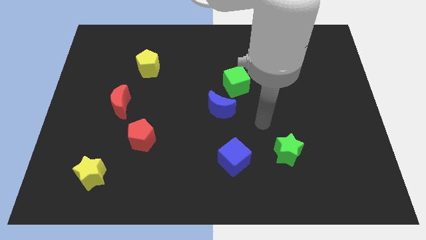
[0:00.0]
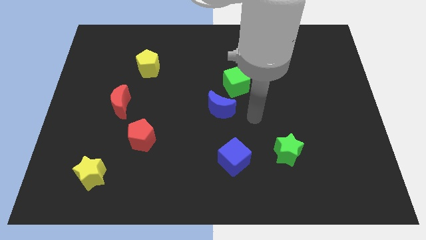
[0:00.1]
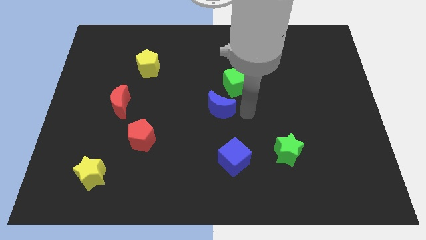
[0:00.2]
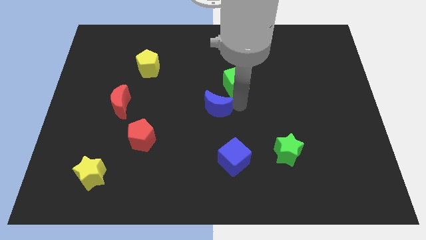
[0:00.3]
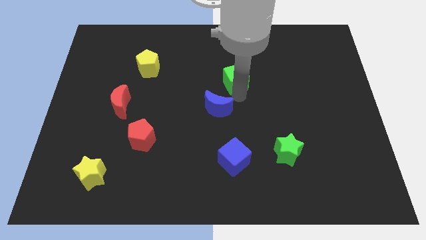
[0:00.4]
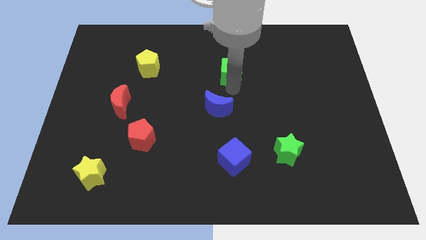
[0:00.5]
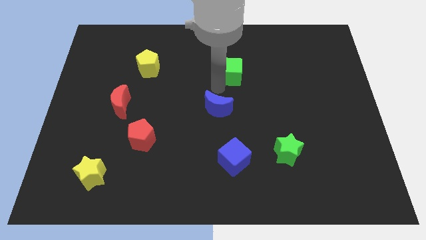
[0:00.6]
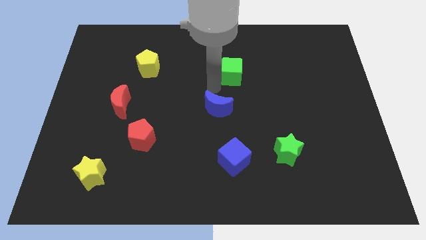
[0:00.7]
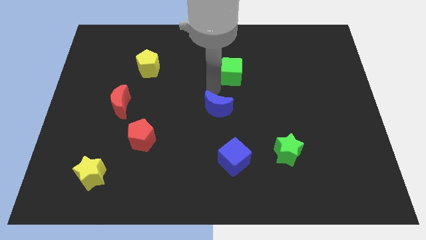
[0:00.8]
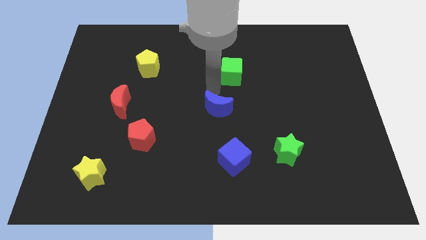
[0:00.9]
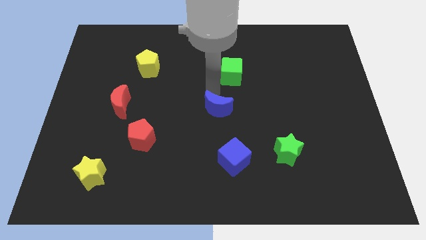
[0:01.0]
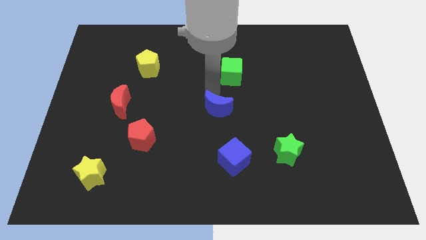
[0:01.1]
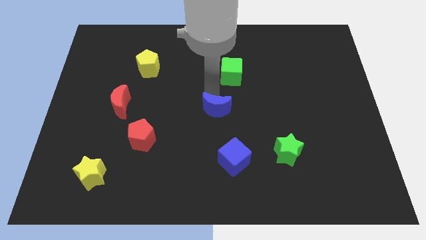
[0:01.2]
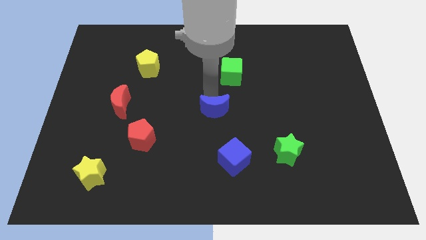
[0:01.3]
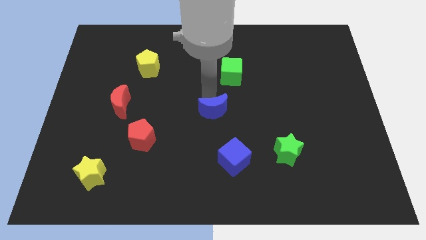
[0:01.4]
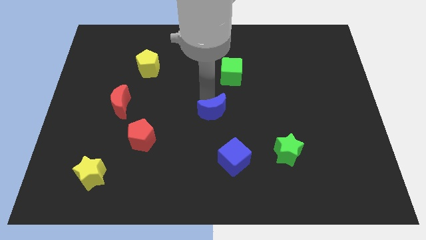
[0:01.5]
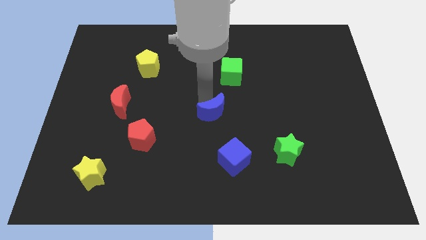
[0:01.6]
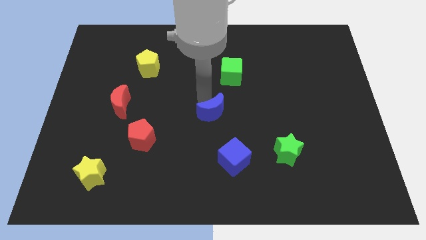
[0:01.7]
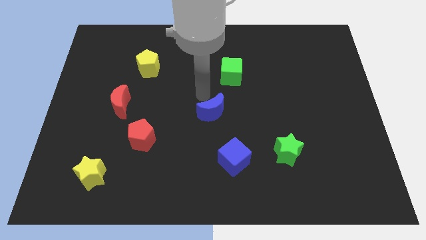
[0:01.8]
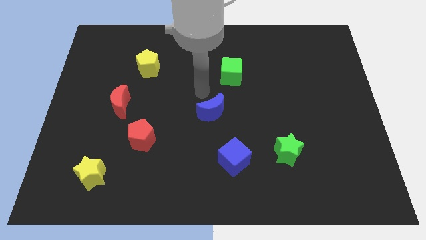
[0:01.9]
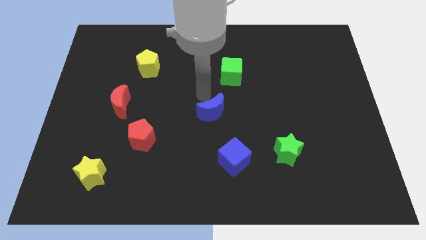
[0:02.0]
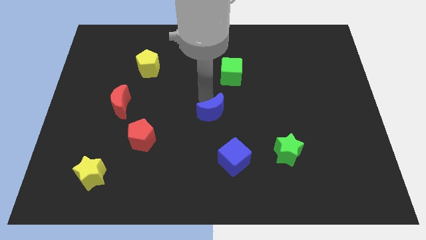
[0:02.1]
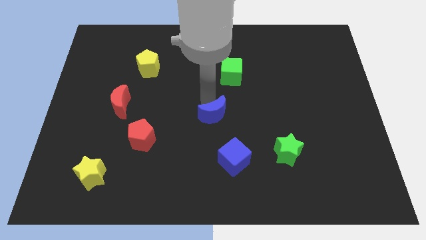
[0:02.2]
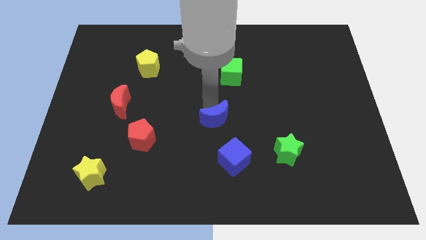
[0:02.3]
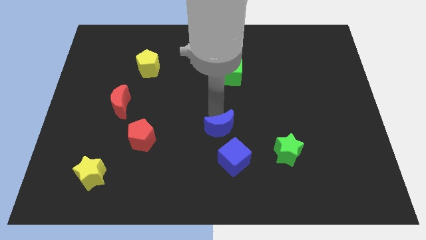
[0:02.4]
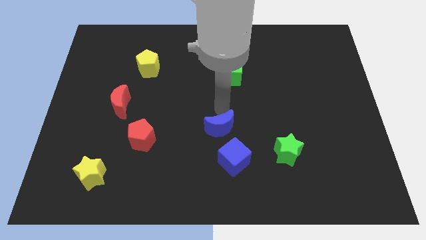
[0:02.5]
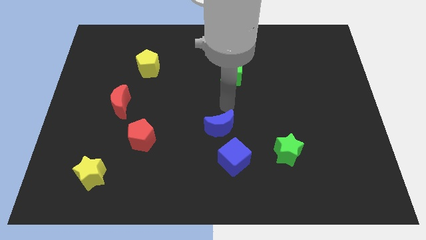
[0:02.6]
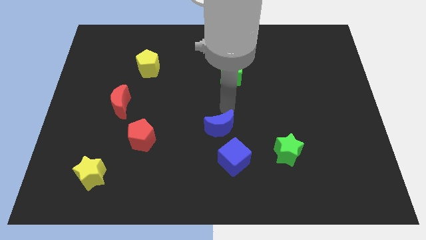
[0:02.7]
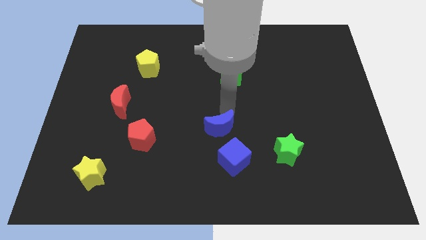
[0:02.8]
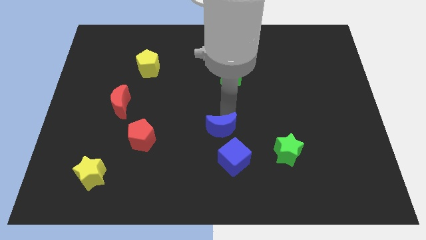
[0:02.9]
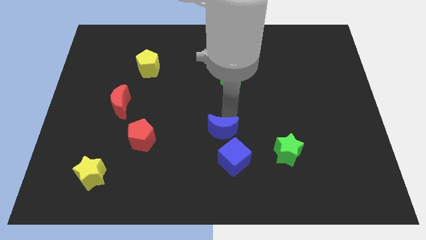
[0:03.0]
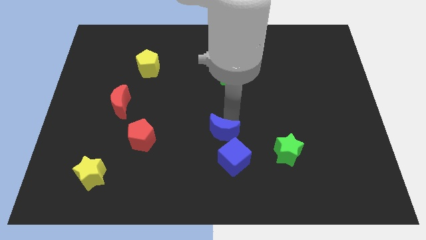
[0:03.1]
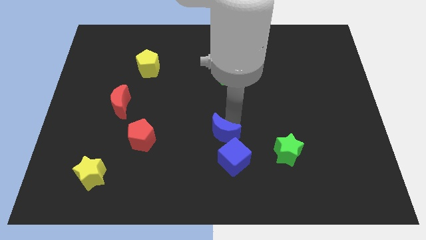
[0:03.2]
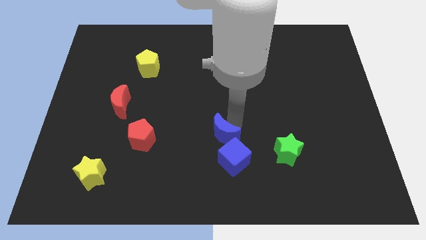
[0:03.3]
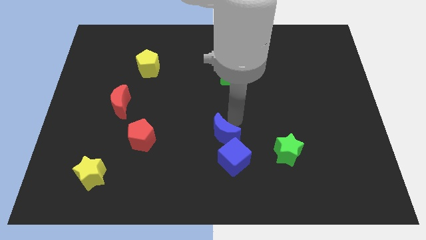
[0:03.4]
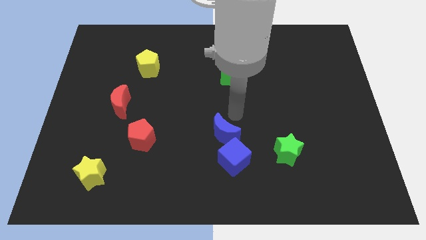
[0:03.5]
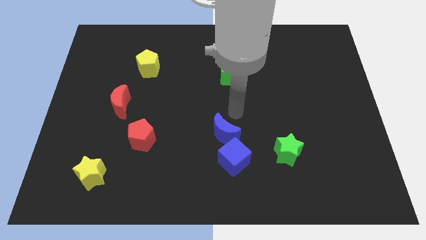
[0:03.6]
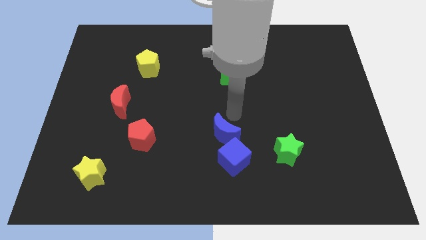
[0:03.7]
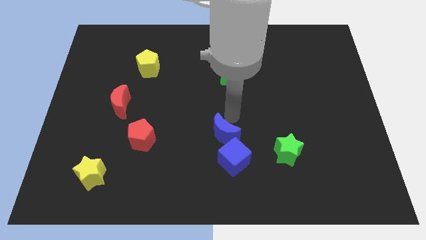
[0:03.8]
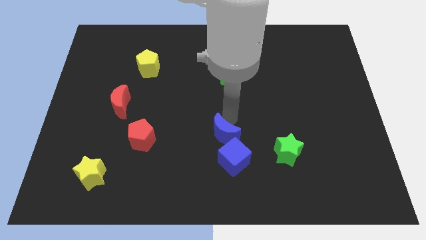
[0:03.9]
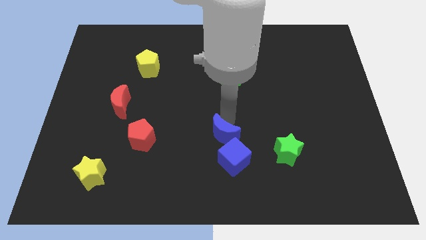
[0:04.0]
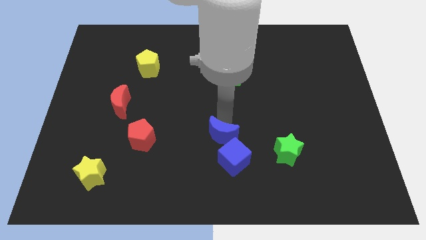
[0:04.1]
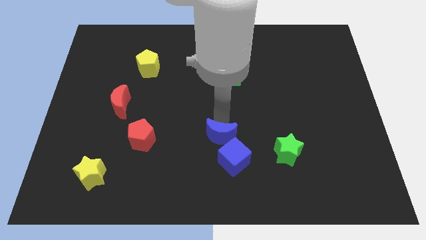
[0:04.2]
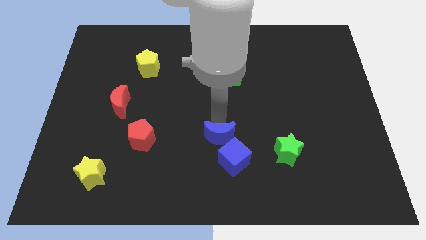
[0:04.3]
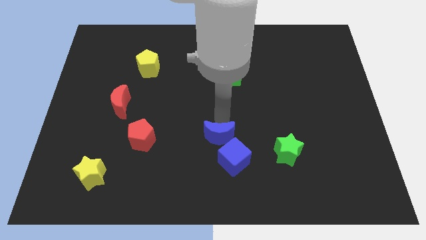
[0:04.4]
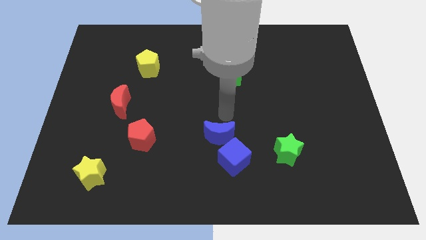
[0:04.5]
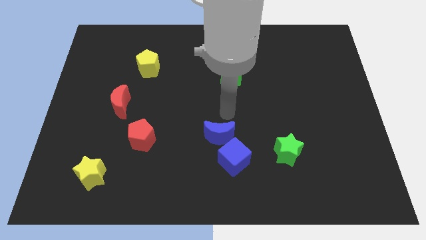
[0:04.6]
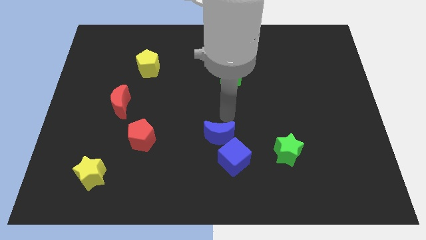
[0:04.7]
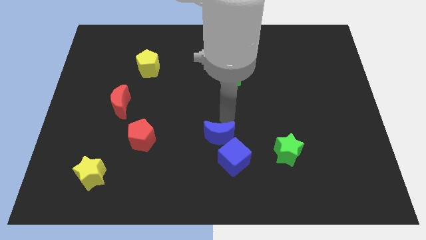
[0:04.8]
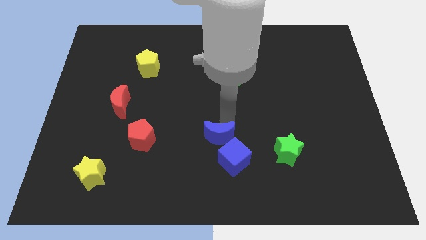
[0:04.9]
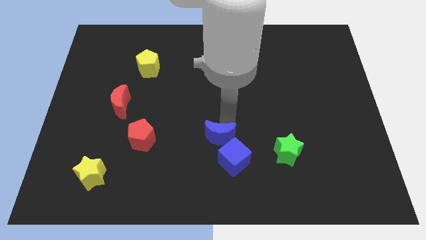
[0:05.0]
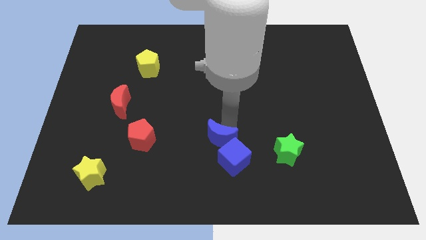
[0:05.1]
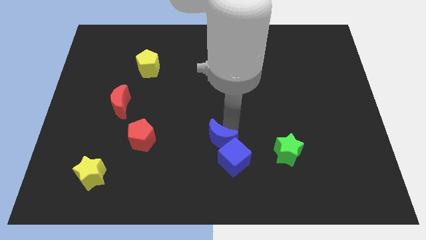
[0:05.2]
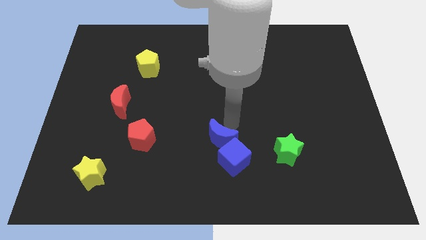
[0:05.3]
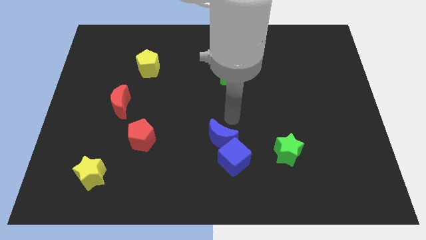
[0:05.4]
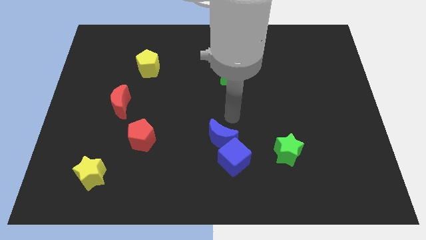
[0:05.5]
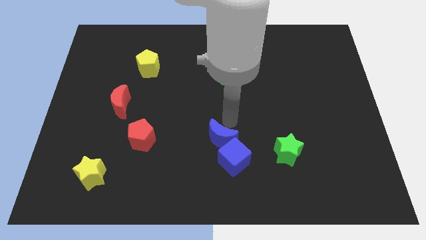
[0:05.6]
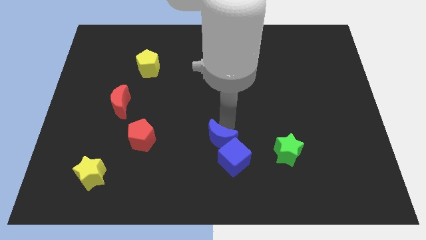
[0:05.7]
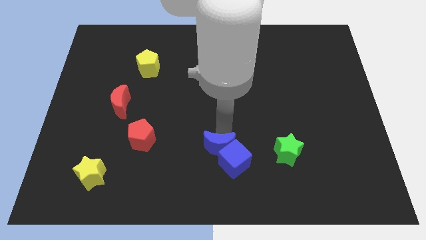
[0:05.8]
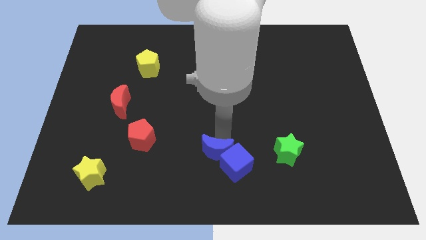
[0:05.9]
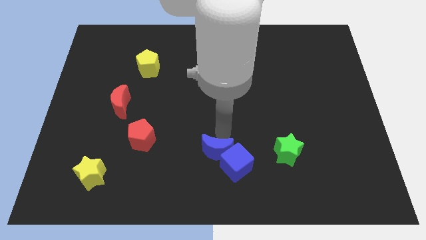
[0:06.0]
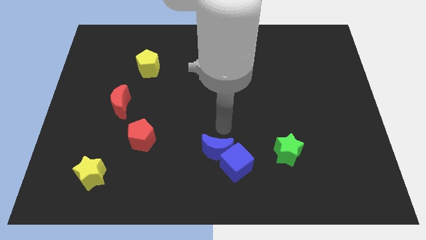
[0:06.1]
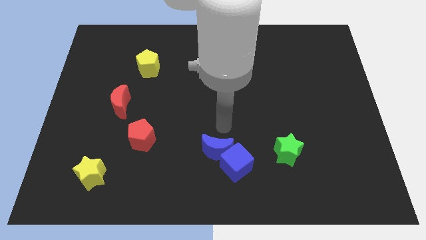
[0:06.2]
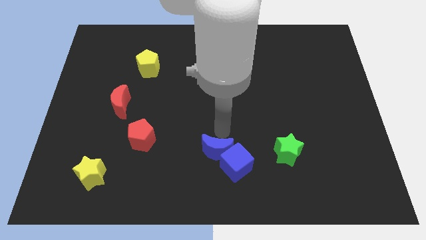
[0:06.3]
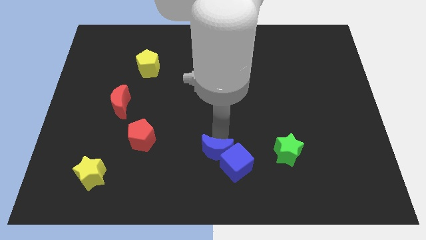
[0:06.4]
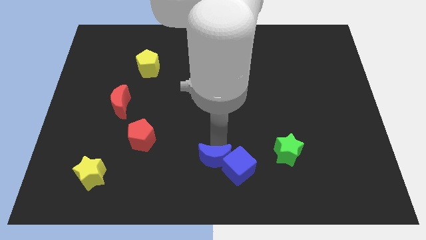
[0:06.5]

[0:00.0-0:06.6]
push the blue moon to the bottom side

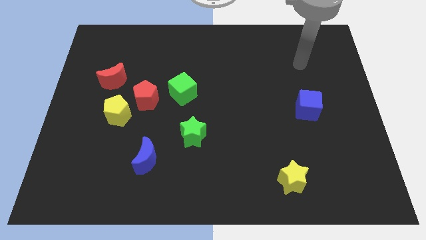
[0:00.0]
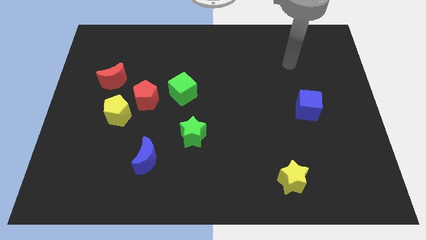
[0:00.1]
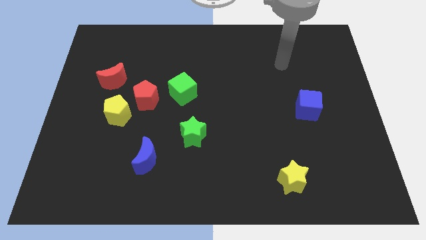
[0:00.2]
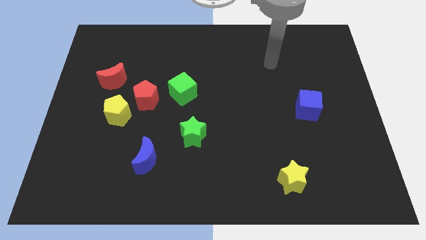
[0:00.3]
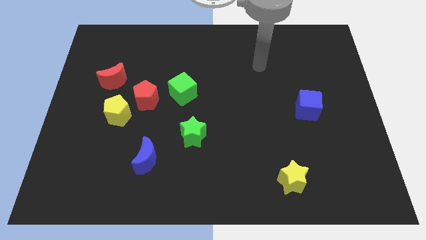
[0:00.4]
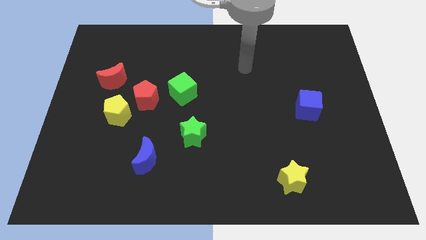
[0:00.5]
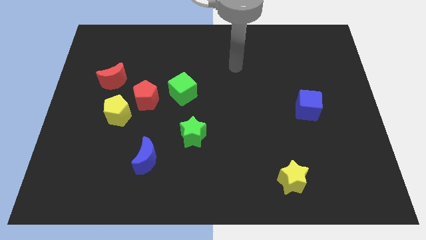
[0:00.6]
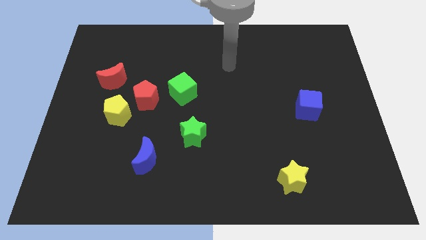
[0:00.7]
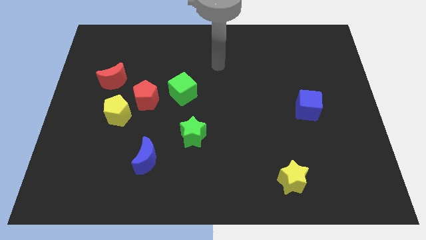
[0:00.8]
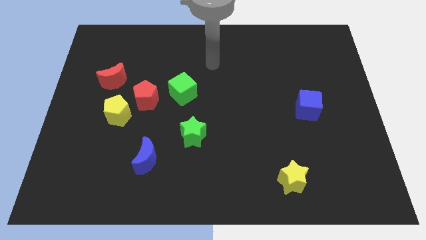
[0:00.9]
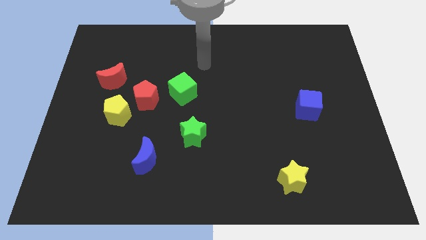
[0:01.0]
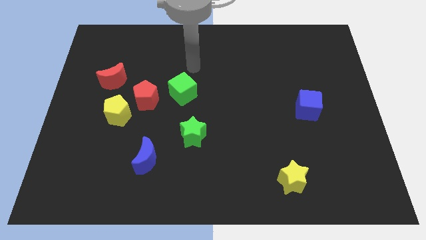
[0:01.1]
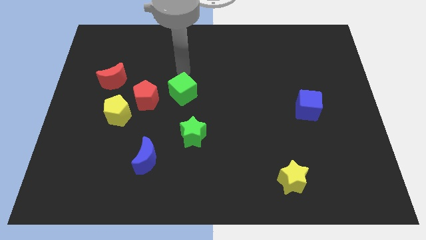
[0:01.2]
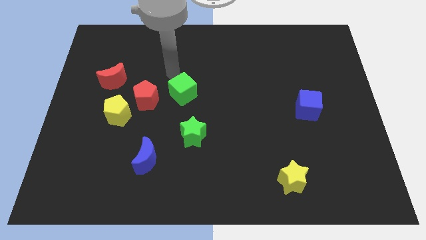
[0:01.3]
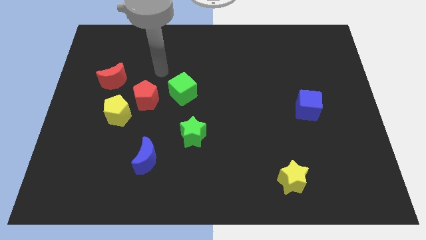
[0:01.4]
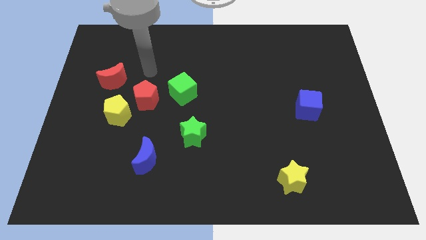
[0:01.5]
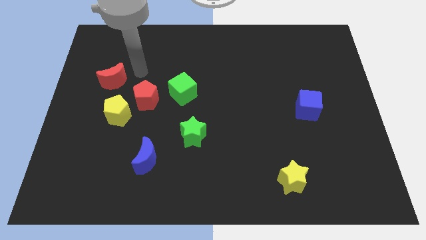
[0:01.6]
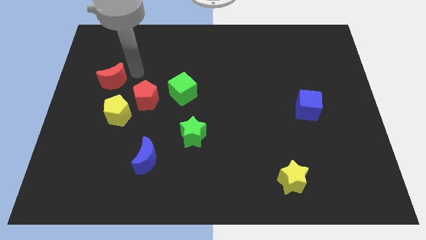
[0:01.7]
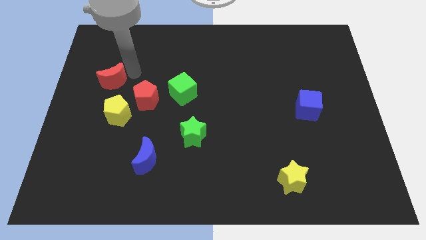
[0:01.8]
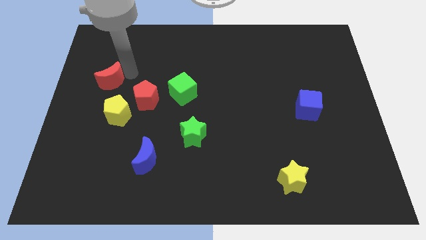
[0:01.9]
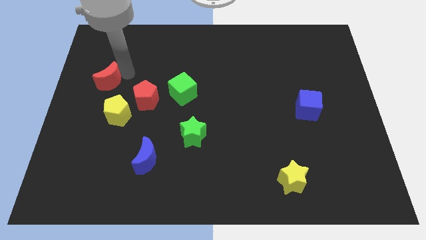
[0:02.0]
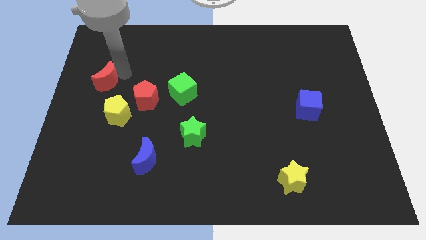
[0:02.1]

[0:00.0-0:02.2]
slide the red moon to the center left
